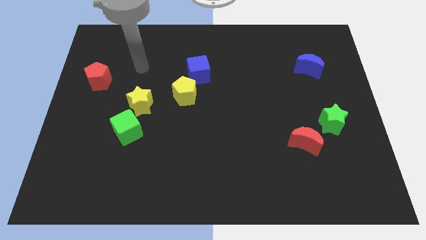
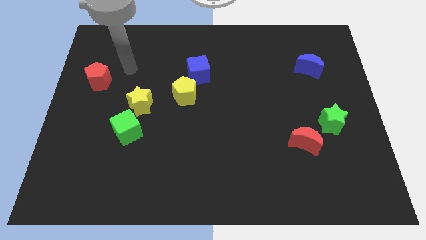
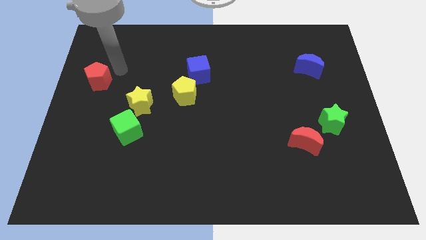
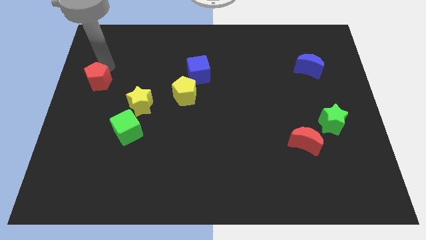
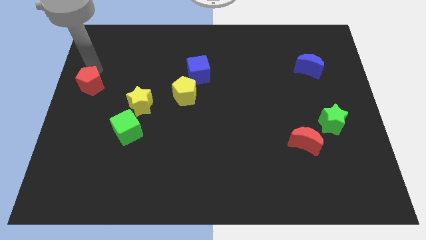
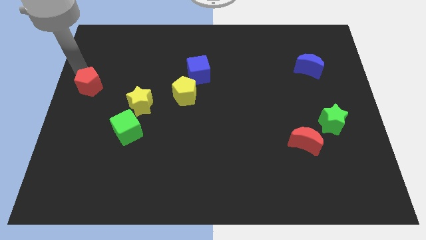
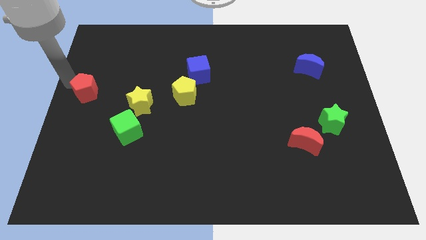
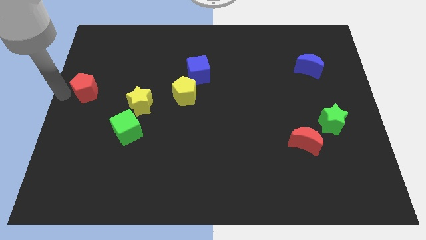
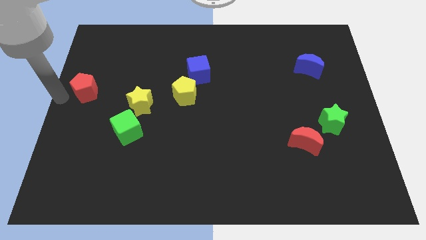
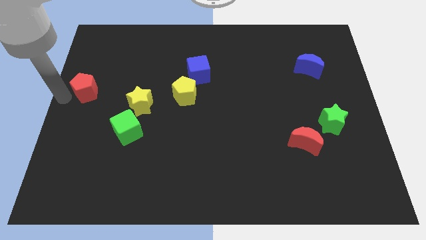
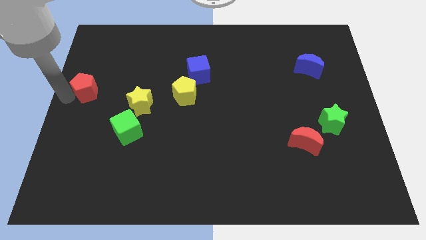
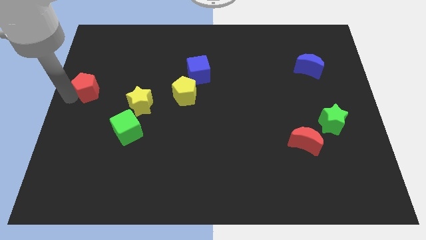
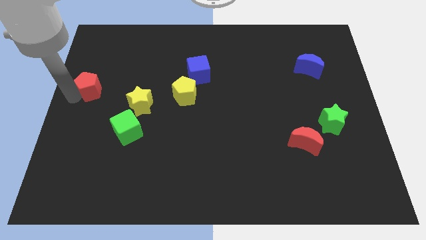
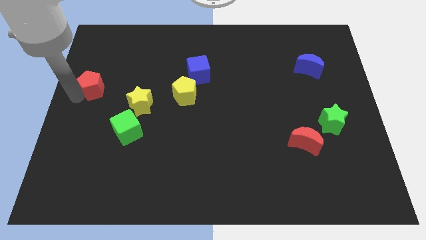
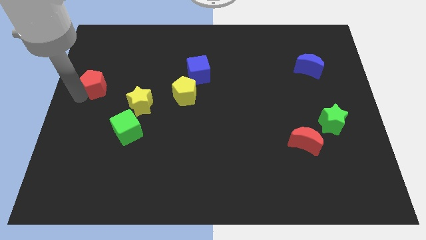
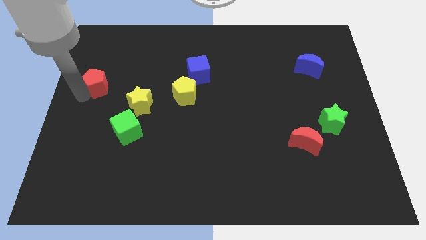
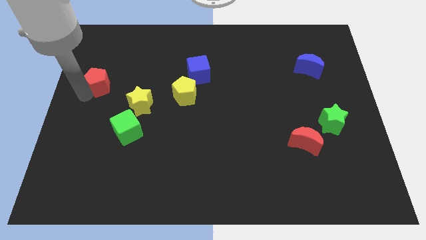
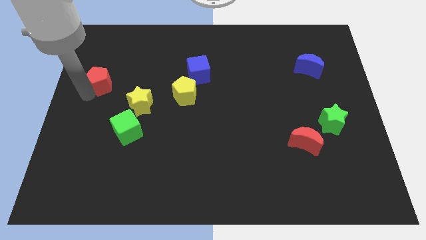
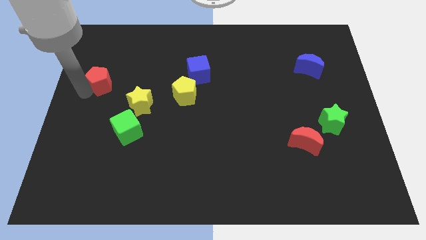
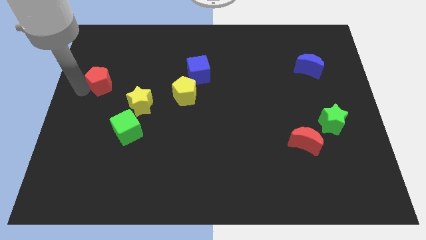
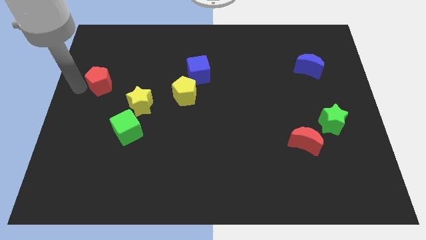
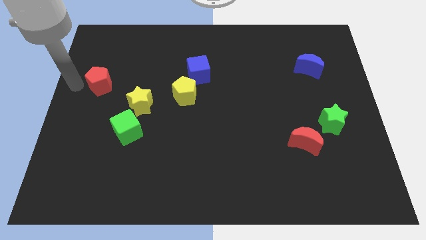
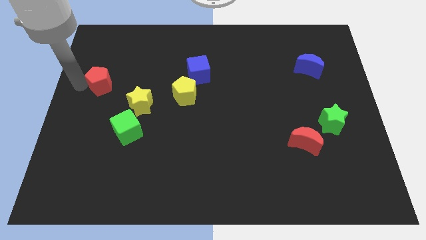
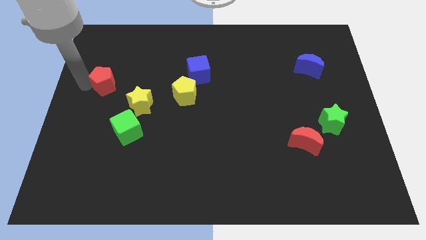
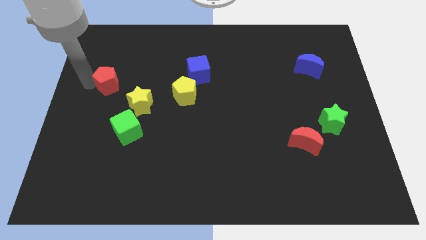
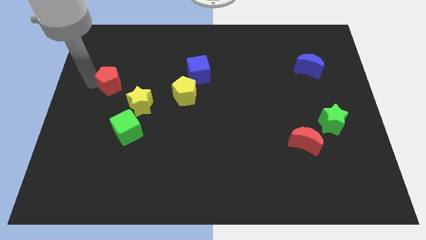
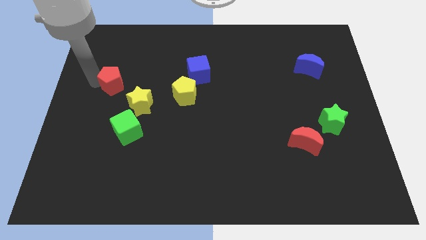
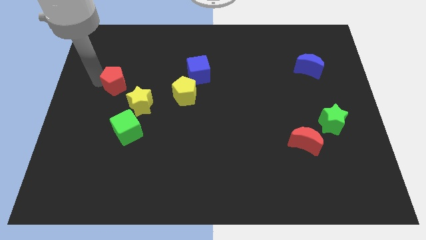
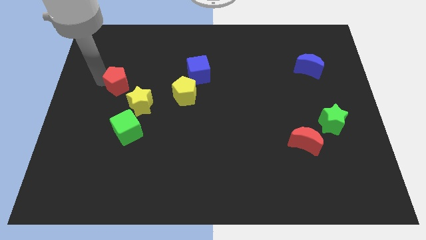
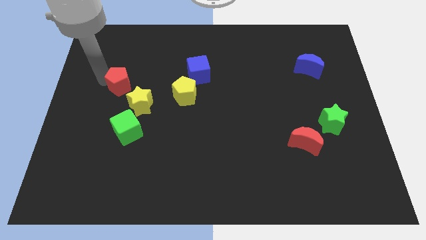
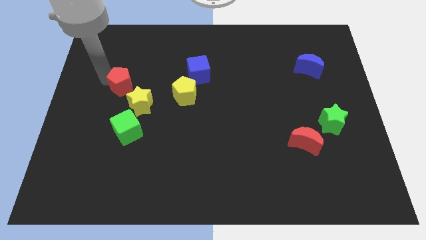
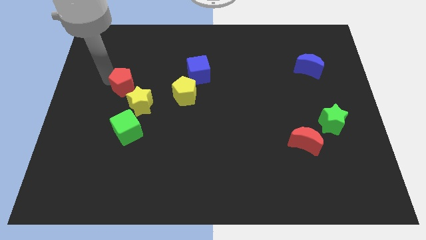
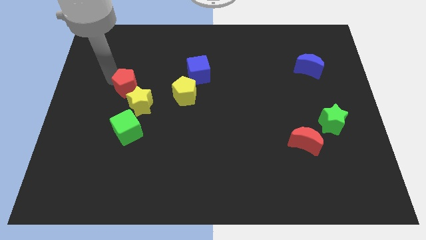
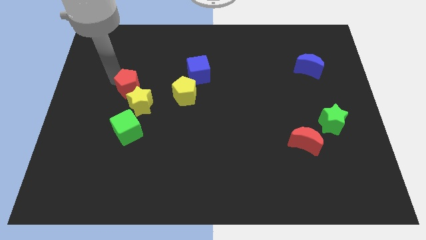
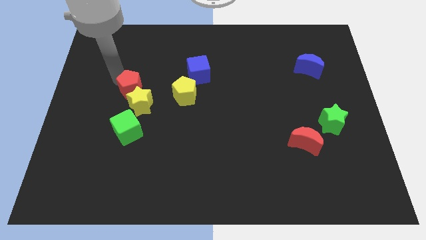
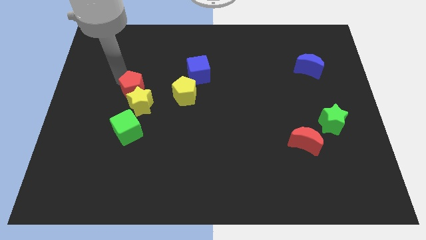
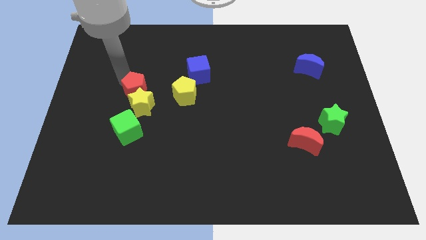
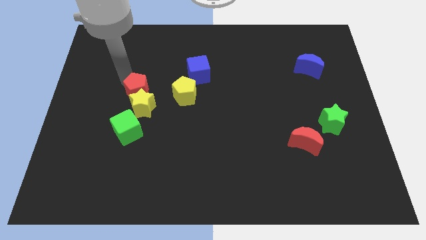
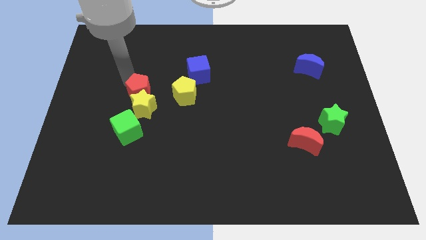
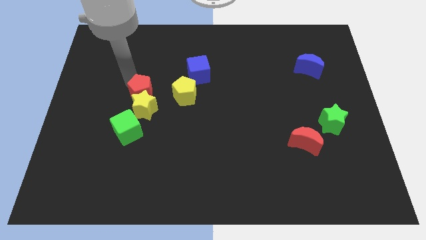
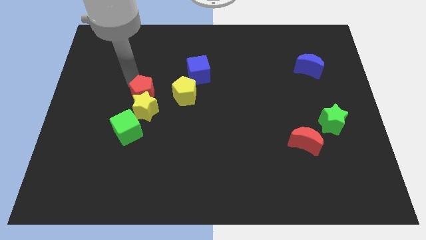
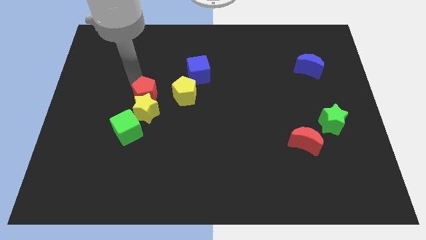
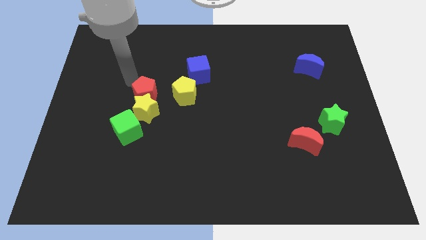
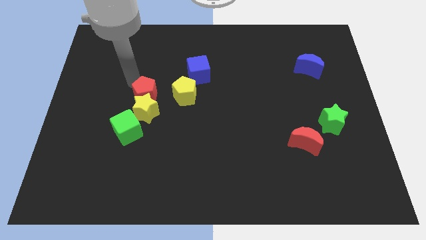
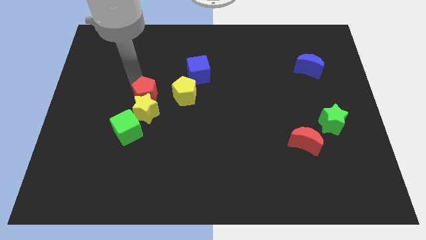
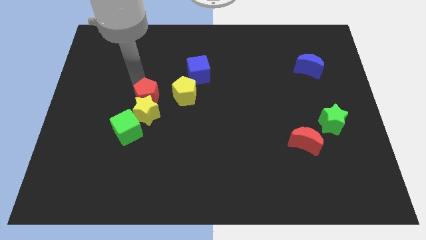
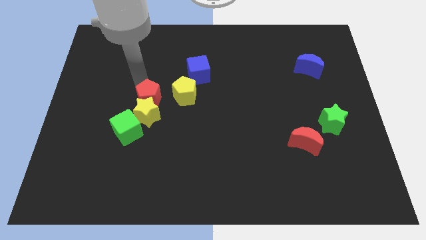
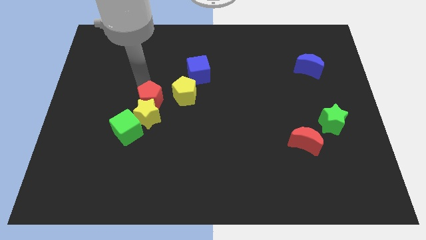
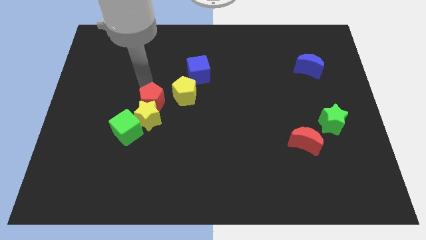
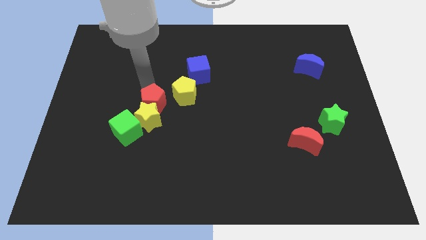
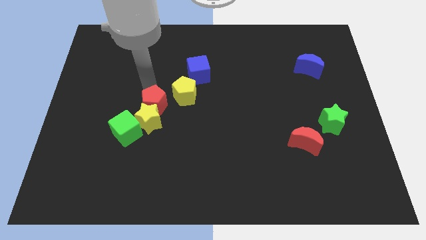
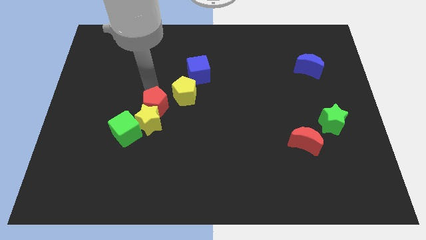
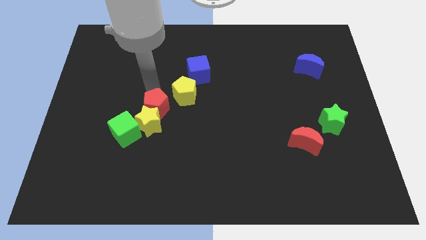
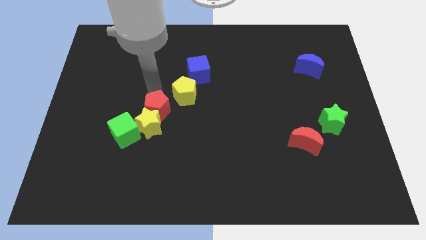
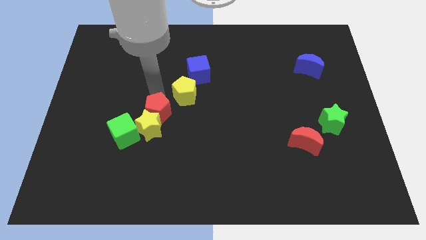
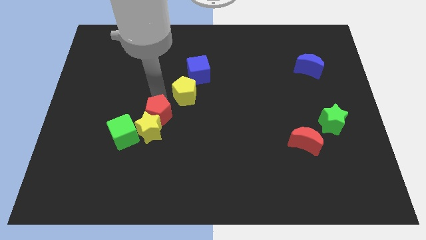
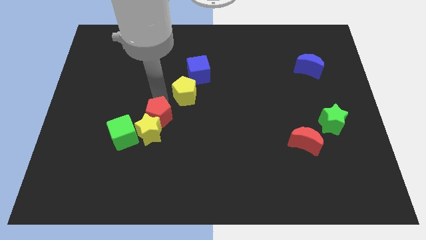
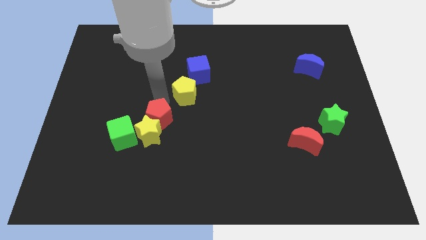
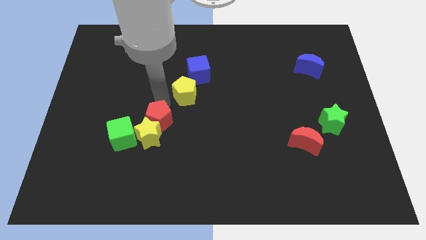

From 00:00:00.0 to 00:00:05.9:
slide the red pentagon diagonally downwards and to the right

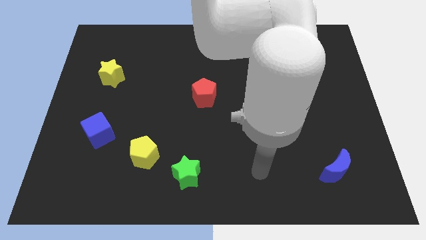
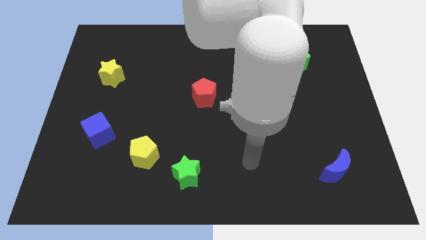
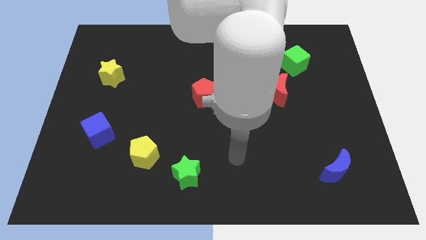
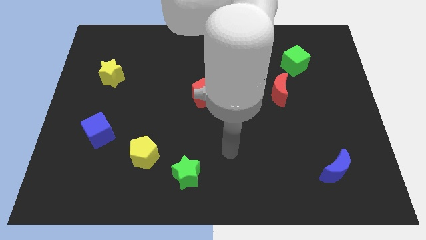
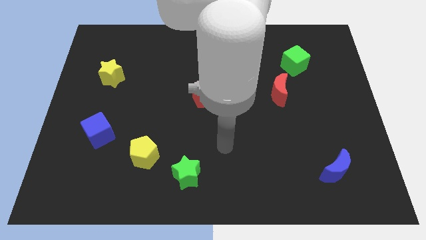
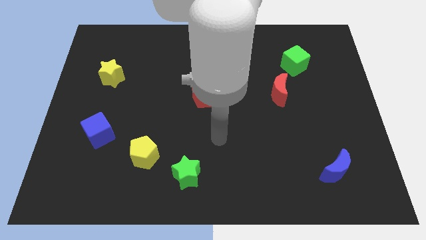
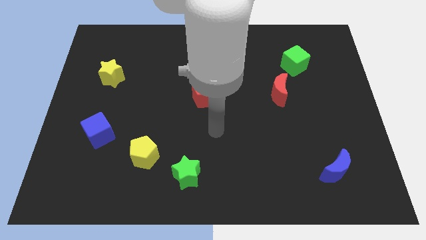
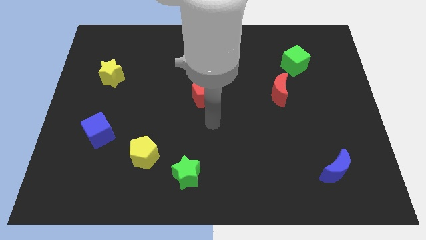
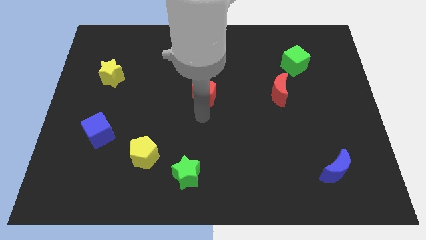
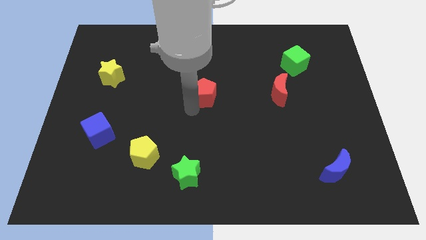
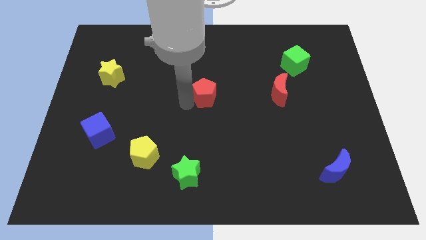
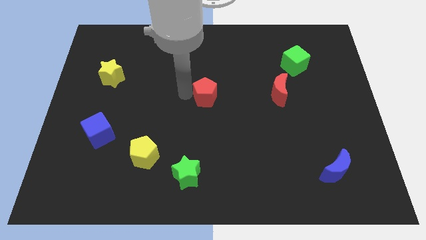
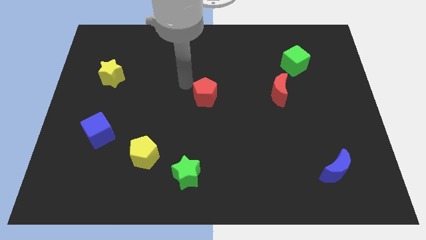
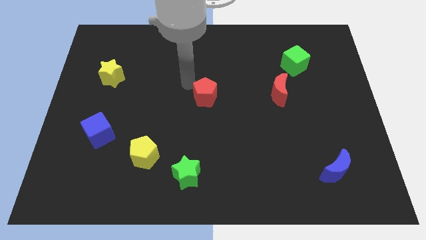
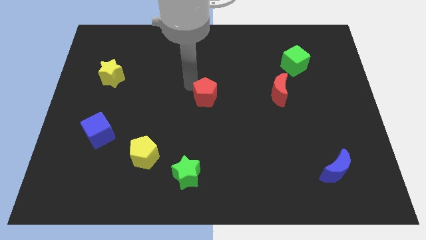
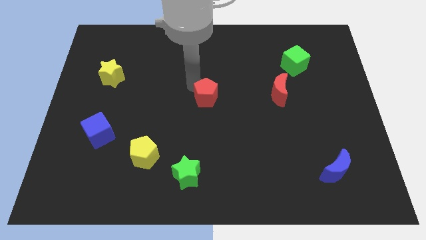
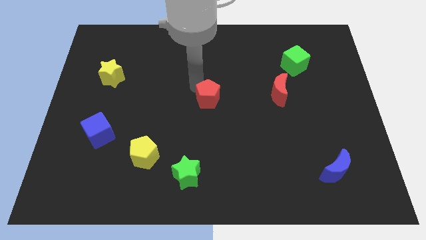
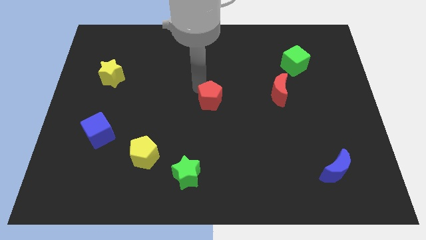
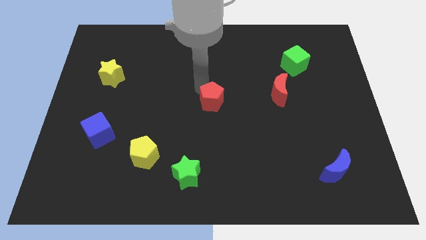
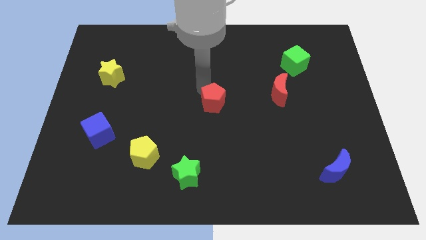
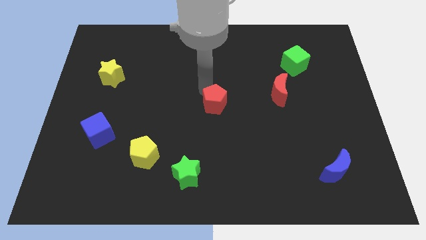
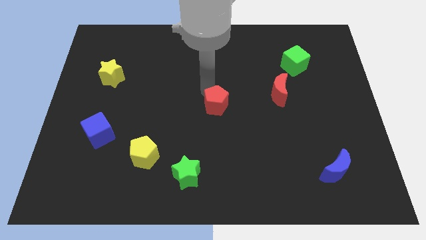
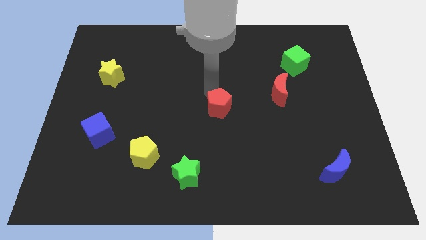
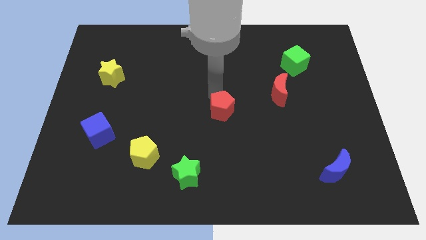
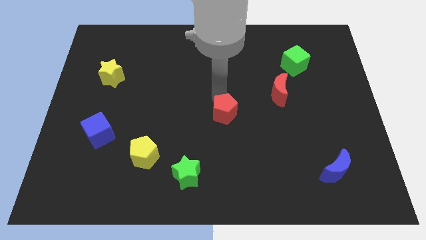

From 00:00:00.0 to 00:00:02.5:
slide the red pentagon a little bit down and then right
